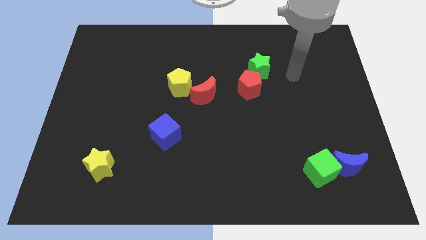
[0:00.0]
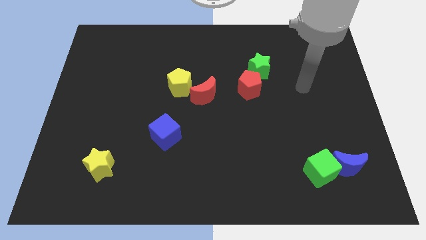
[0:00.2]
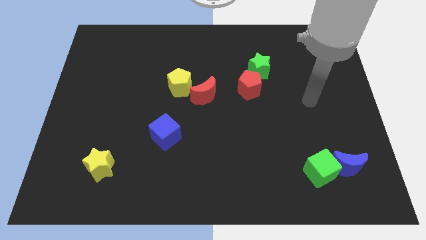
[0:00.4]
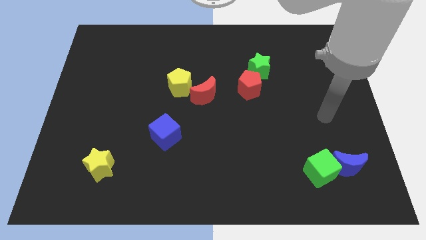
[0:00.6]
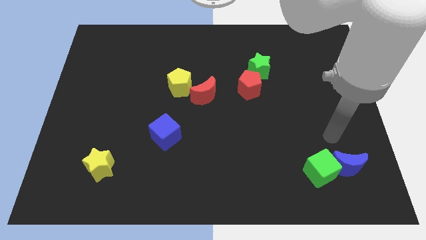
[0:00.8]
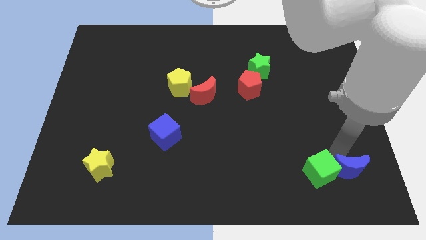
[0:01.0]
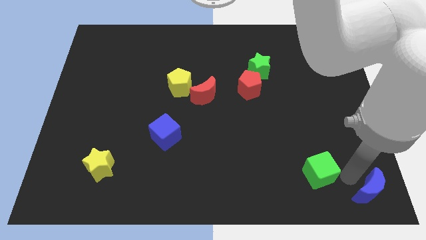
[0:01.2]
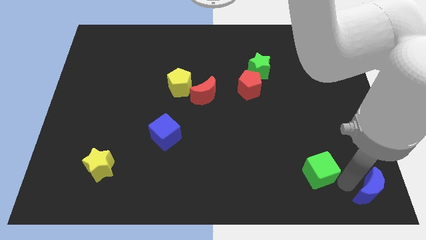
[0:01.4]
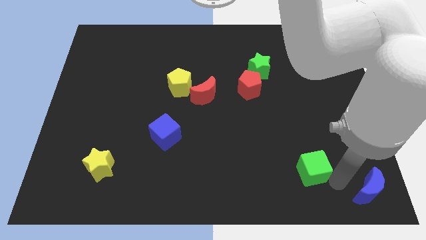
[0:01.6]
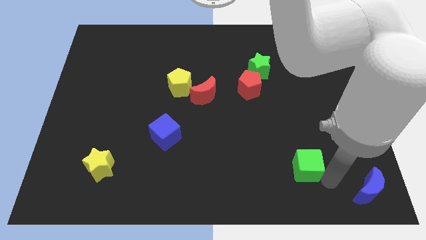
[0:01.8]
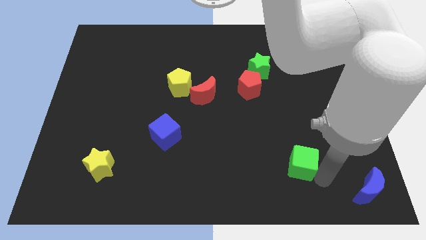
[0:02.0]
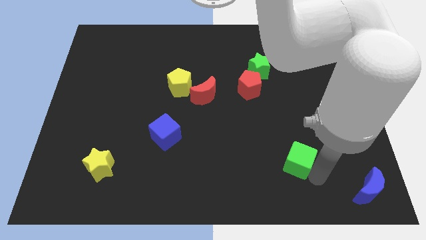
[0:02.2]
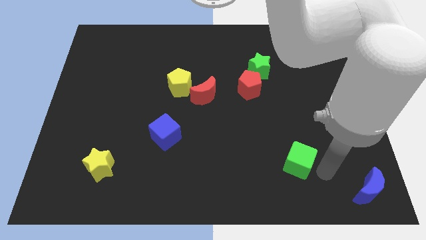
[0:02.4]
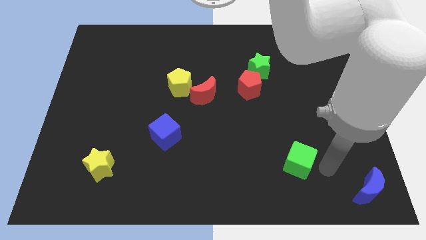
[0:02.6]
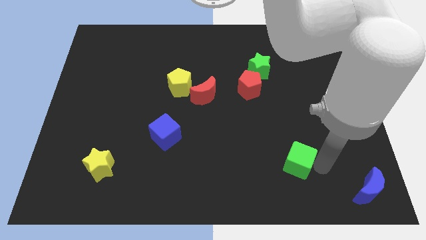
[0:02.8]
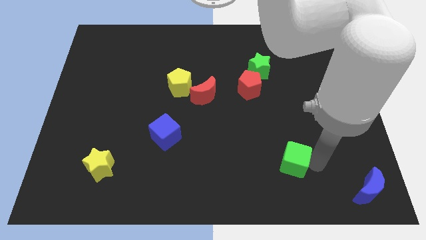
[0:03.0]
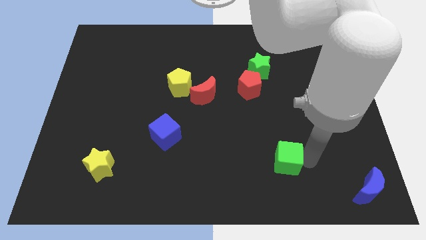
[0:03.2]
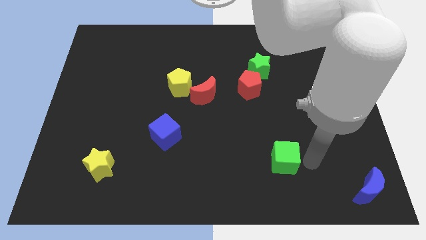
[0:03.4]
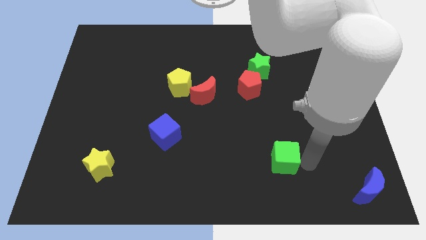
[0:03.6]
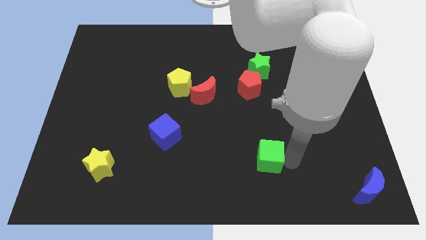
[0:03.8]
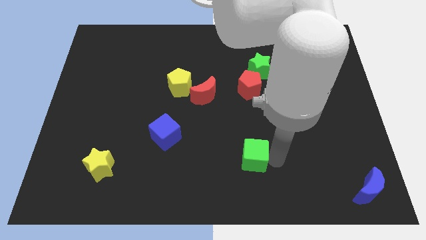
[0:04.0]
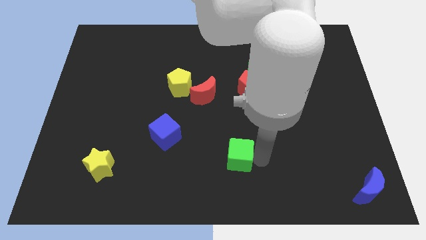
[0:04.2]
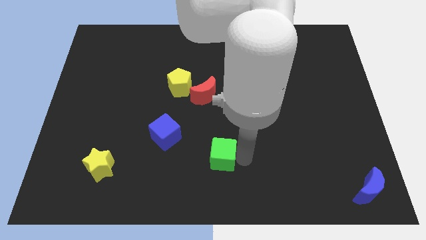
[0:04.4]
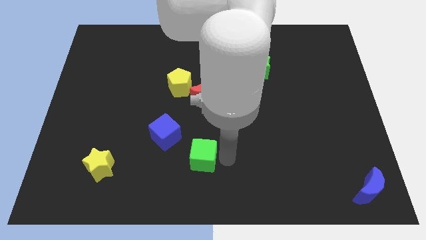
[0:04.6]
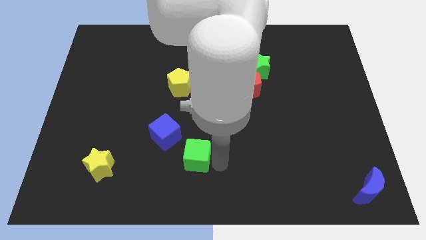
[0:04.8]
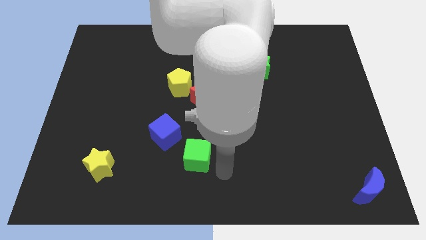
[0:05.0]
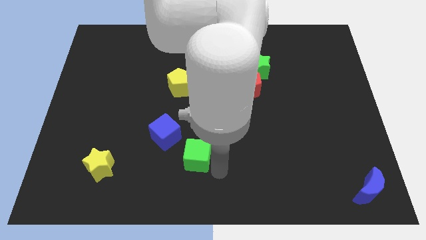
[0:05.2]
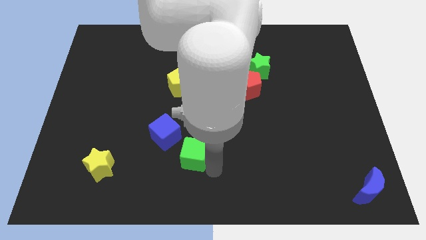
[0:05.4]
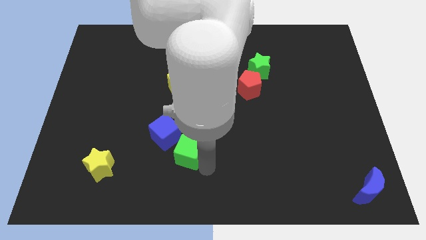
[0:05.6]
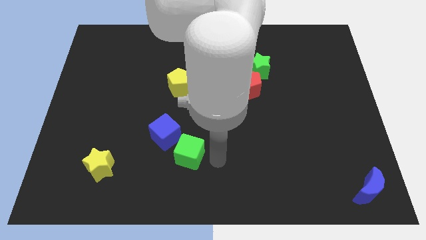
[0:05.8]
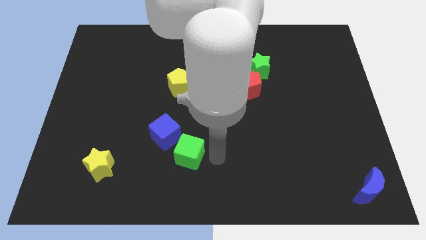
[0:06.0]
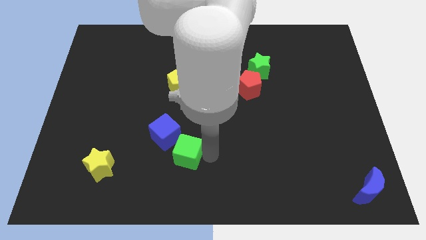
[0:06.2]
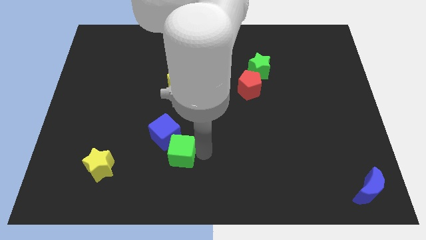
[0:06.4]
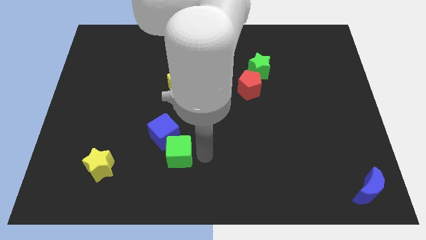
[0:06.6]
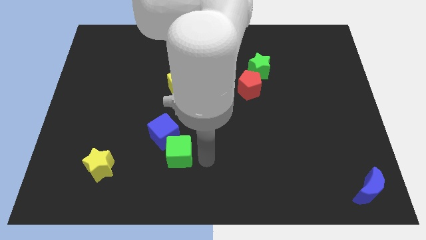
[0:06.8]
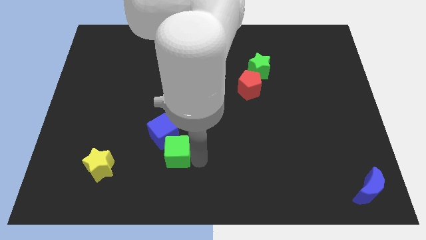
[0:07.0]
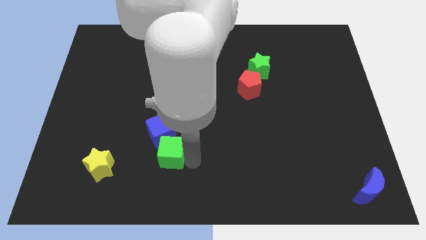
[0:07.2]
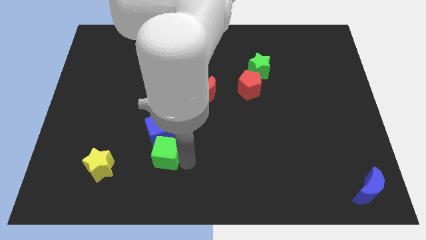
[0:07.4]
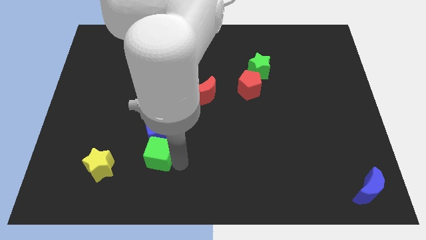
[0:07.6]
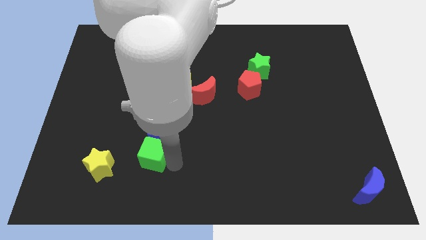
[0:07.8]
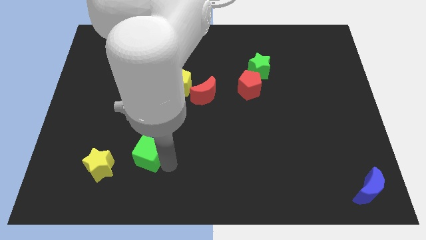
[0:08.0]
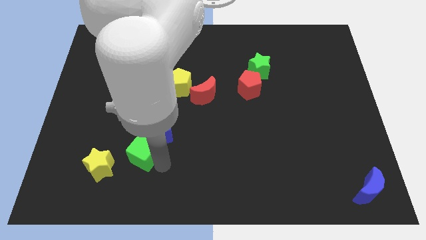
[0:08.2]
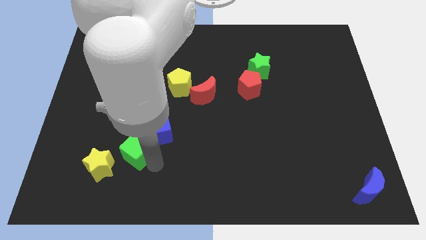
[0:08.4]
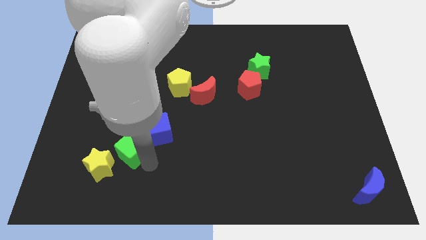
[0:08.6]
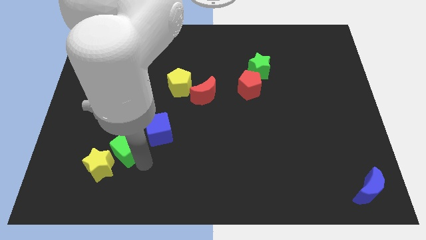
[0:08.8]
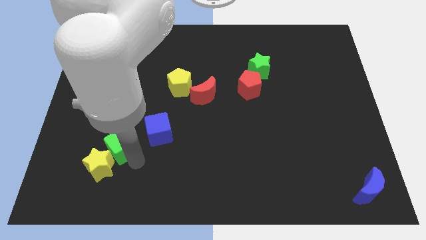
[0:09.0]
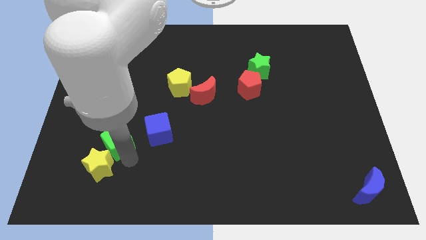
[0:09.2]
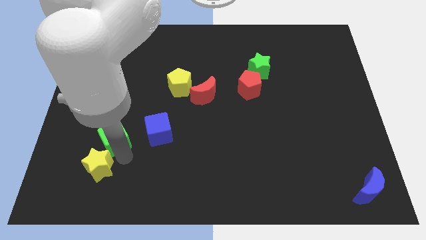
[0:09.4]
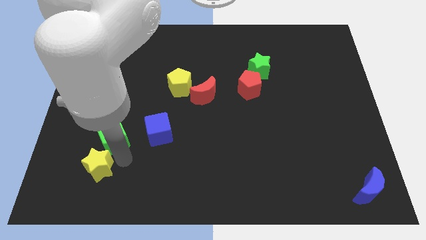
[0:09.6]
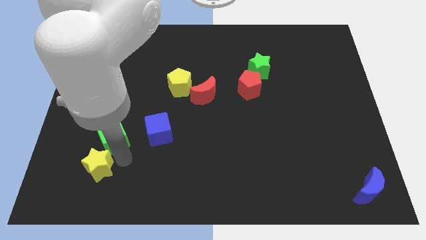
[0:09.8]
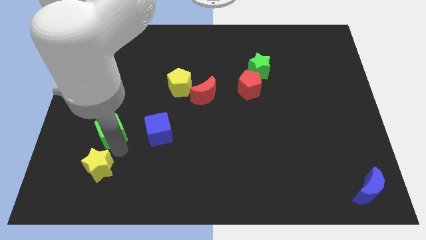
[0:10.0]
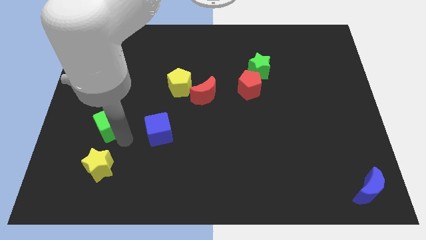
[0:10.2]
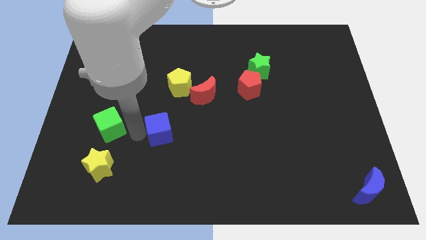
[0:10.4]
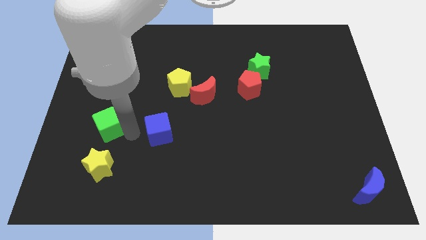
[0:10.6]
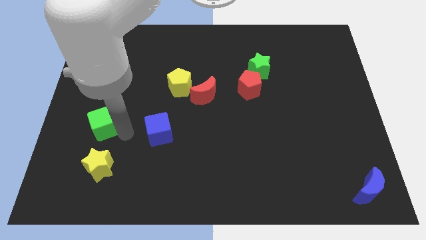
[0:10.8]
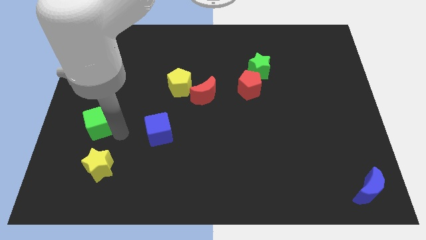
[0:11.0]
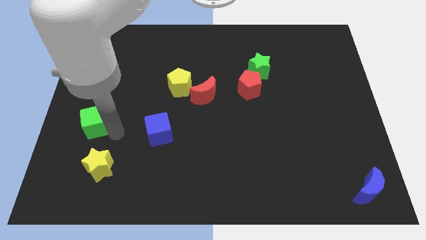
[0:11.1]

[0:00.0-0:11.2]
push the green cube to the left side

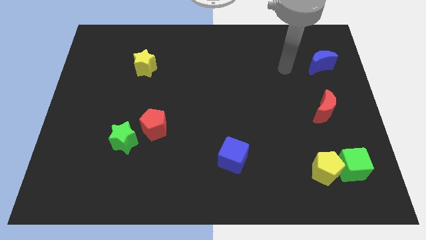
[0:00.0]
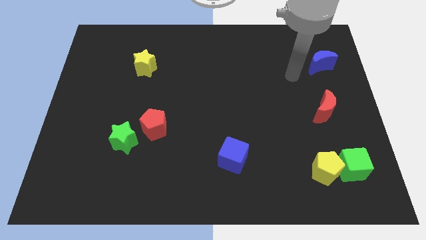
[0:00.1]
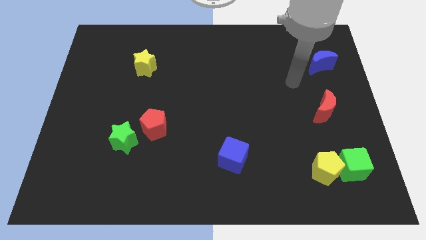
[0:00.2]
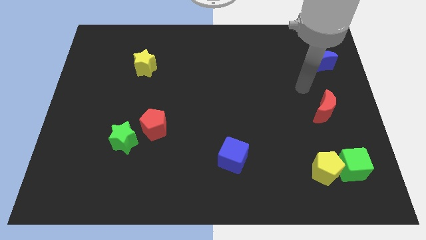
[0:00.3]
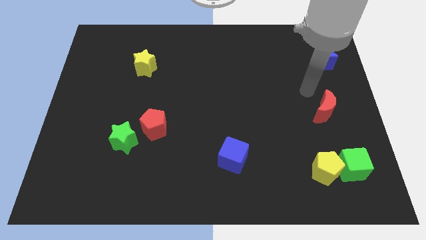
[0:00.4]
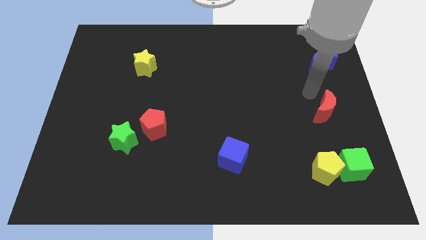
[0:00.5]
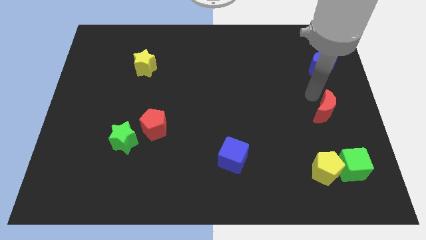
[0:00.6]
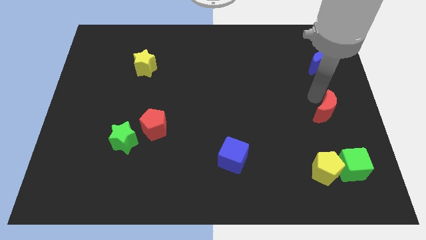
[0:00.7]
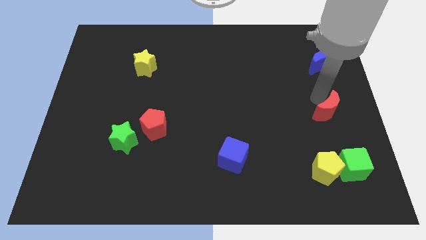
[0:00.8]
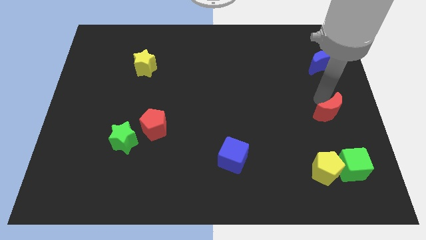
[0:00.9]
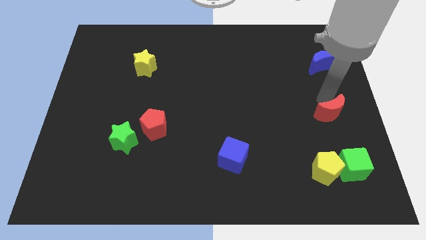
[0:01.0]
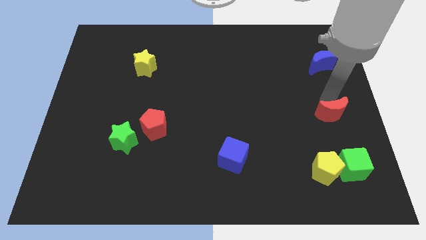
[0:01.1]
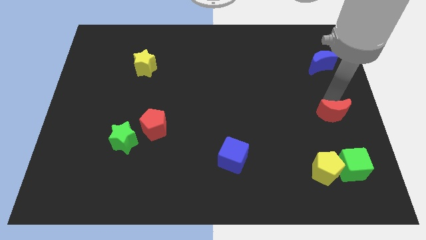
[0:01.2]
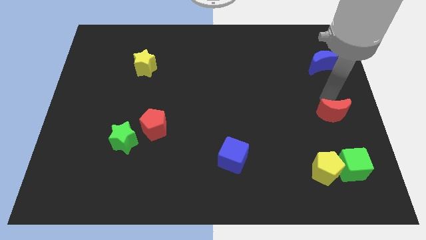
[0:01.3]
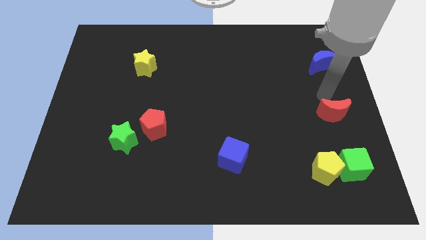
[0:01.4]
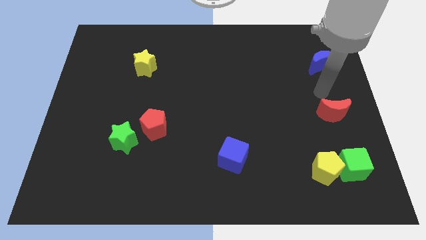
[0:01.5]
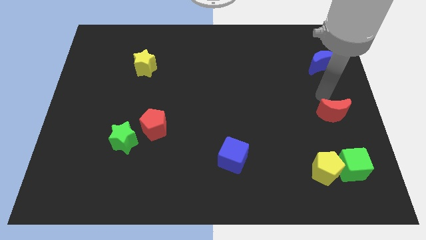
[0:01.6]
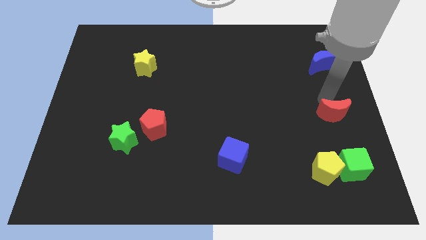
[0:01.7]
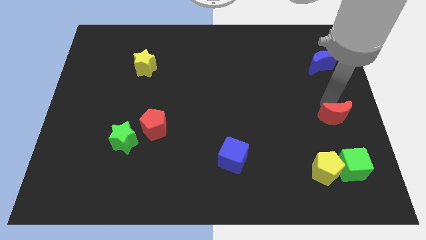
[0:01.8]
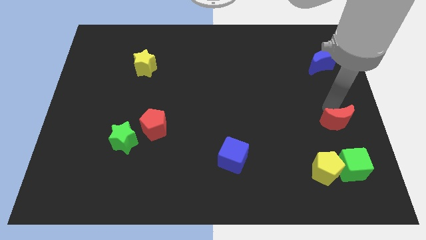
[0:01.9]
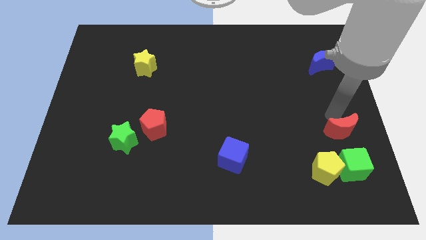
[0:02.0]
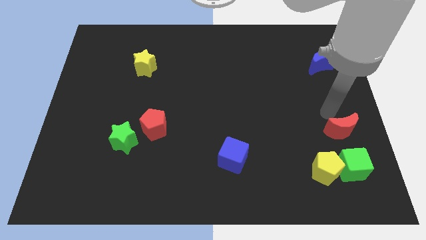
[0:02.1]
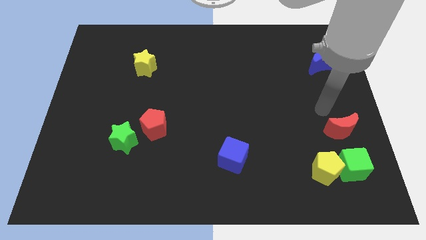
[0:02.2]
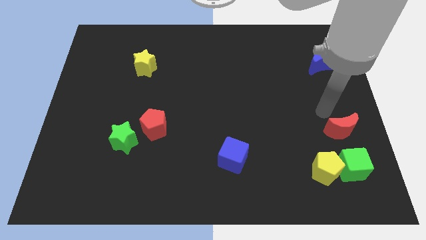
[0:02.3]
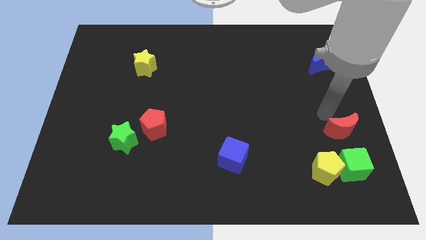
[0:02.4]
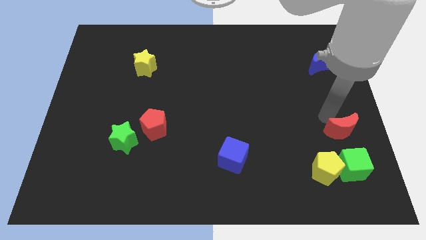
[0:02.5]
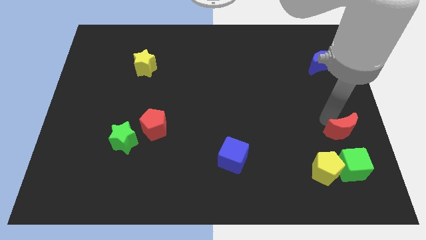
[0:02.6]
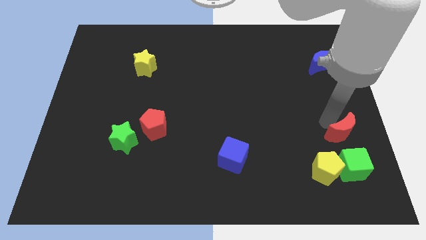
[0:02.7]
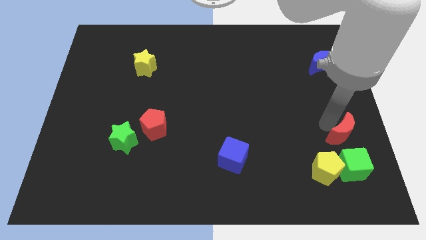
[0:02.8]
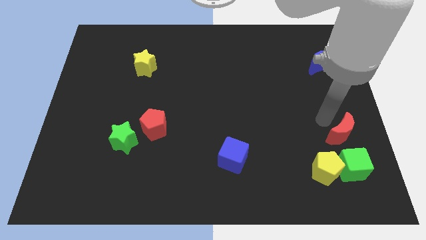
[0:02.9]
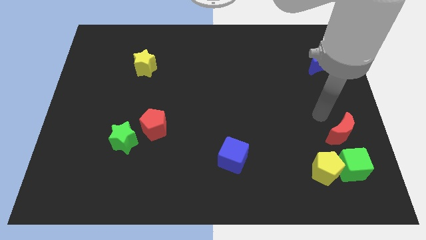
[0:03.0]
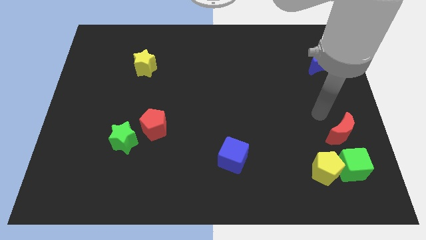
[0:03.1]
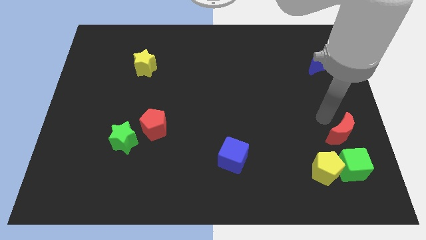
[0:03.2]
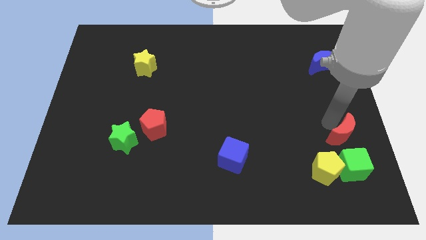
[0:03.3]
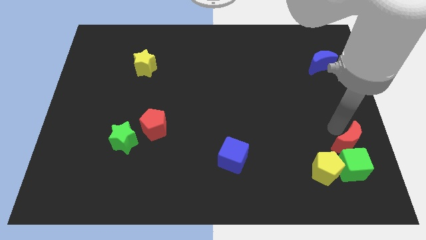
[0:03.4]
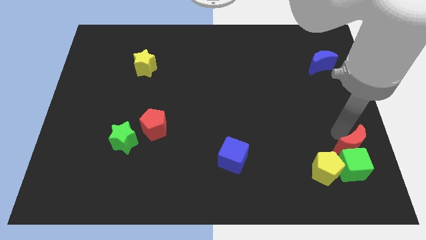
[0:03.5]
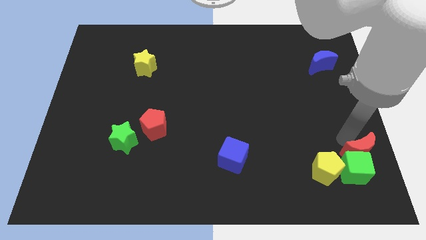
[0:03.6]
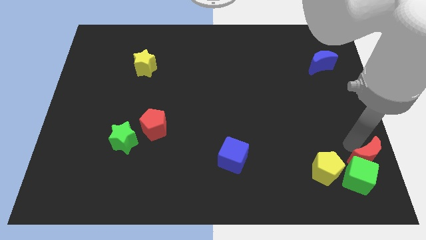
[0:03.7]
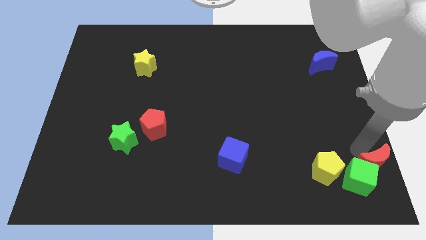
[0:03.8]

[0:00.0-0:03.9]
slide the red moon to the bottom right of the board
